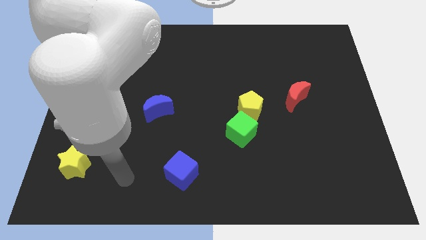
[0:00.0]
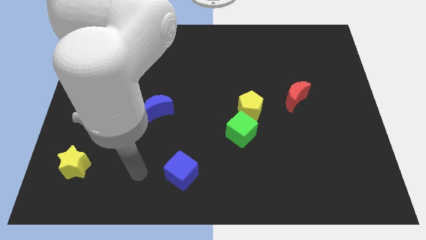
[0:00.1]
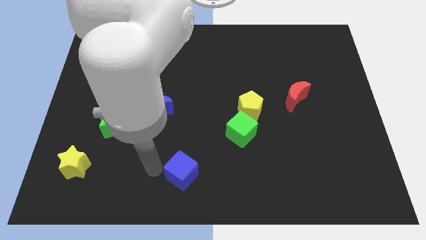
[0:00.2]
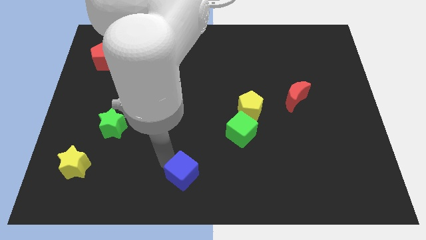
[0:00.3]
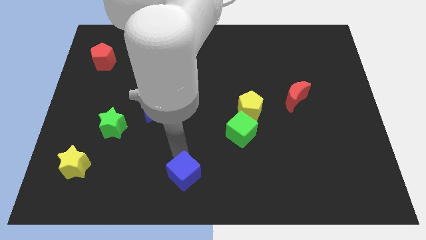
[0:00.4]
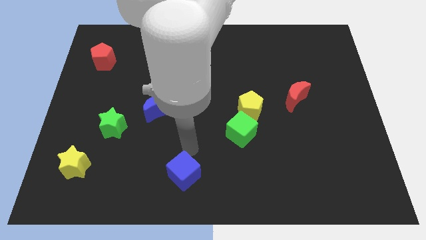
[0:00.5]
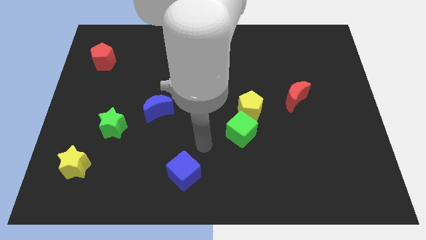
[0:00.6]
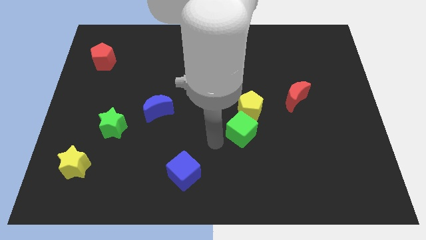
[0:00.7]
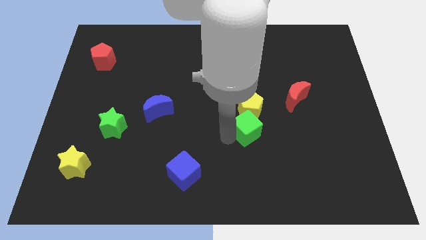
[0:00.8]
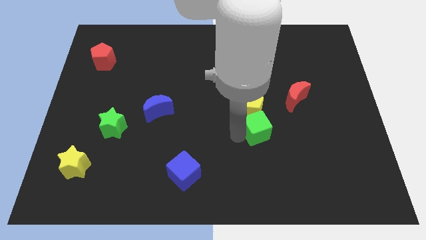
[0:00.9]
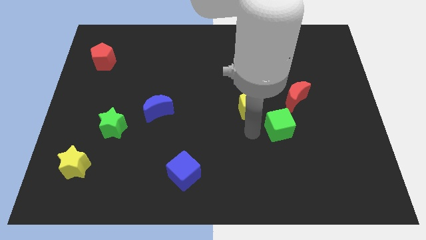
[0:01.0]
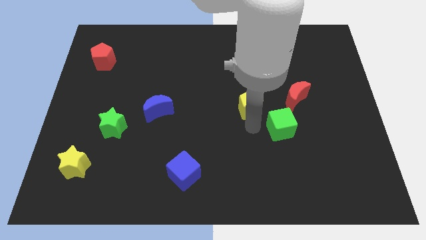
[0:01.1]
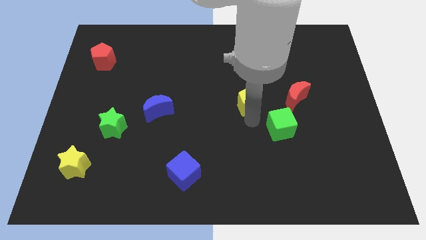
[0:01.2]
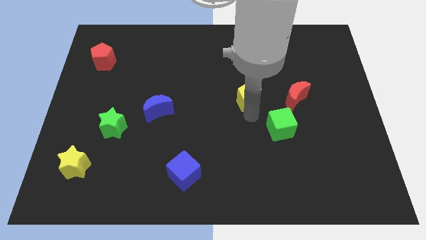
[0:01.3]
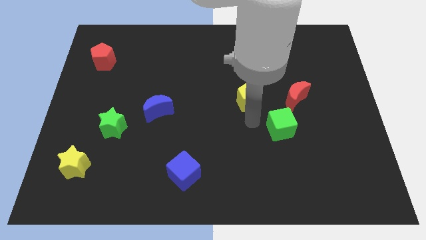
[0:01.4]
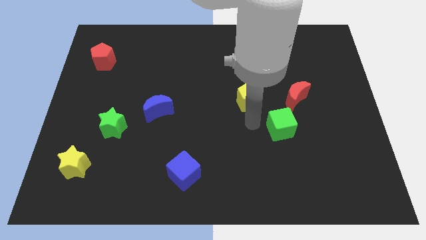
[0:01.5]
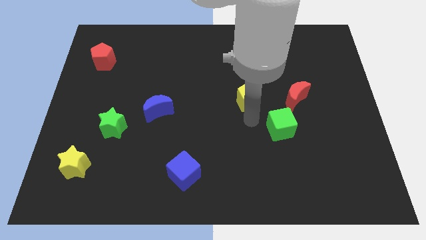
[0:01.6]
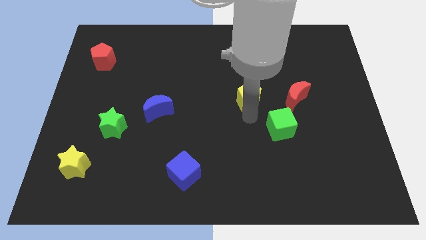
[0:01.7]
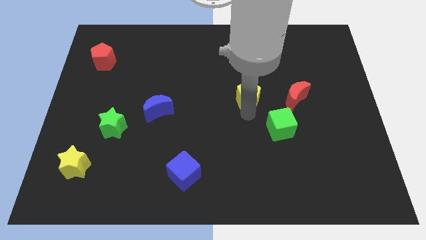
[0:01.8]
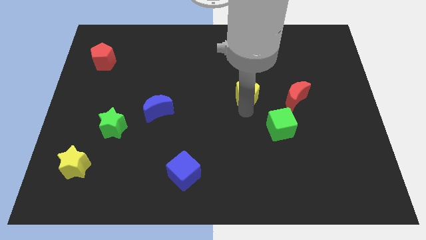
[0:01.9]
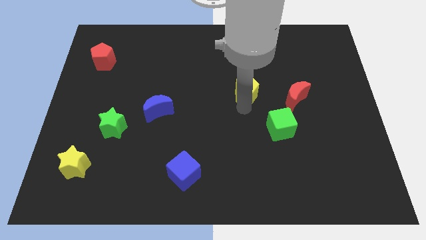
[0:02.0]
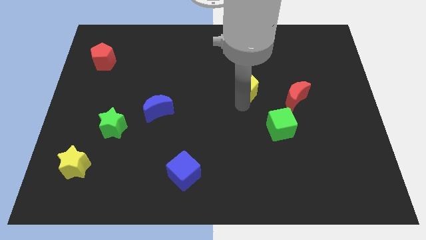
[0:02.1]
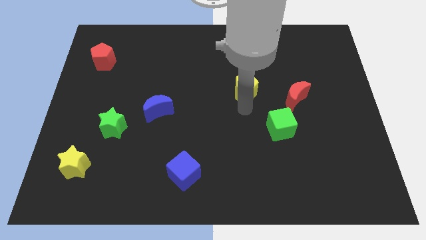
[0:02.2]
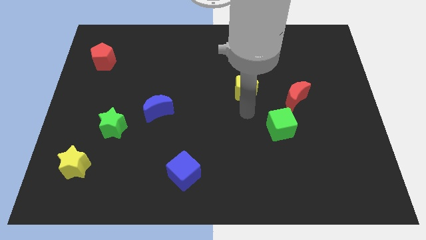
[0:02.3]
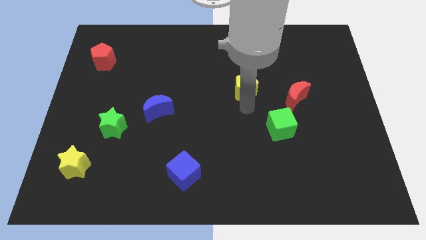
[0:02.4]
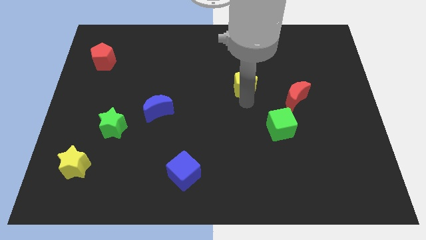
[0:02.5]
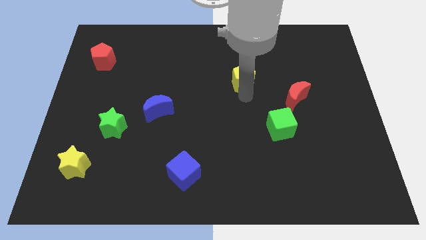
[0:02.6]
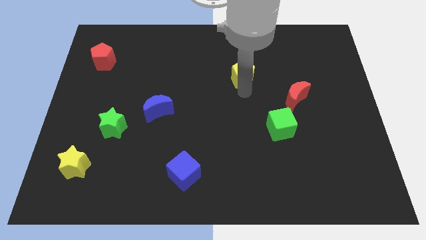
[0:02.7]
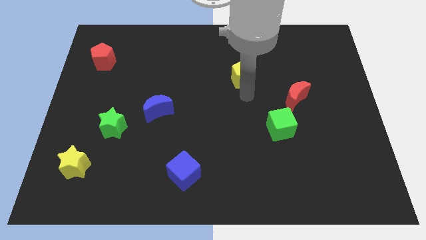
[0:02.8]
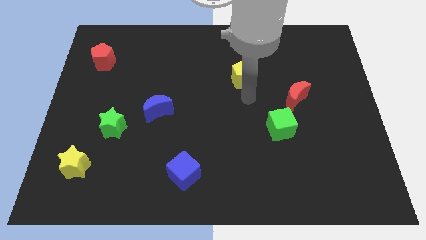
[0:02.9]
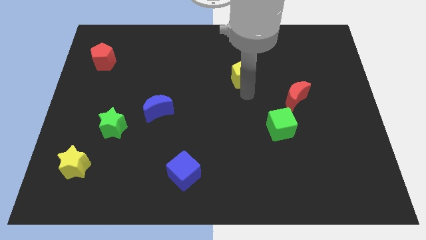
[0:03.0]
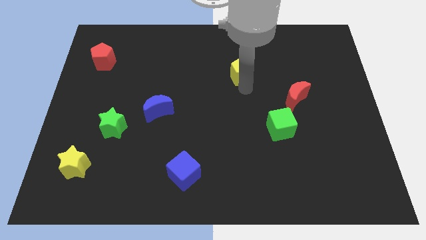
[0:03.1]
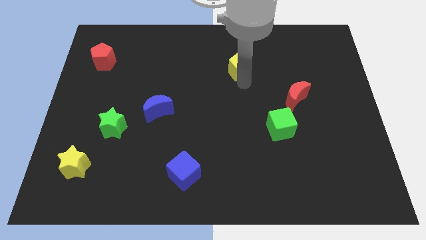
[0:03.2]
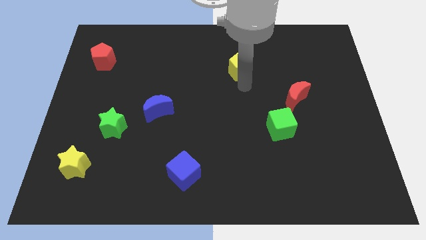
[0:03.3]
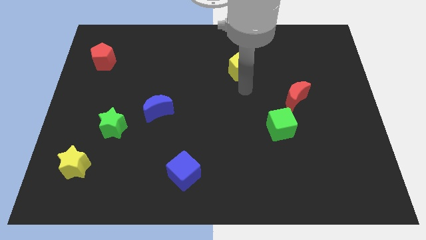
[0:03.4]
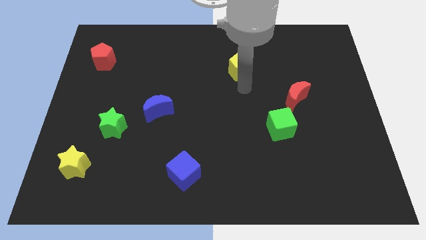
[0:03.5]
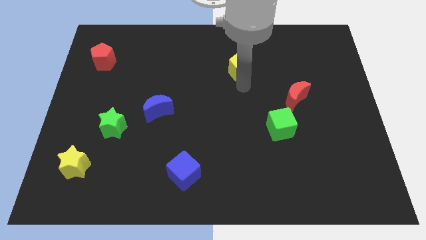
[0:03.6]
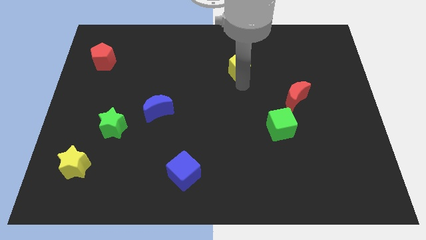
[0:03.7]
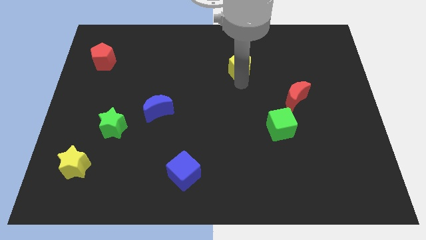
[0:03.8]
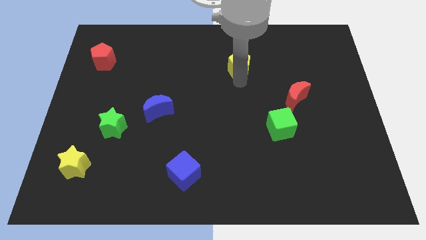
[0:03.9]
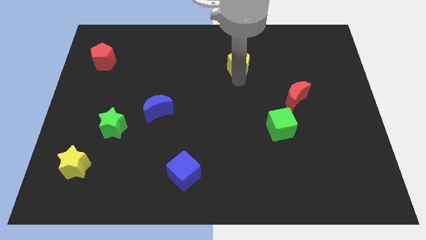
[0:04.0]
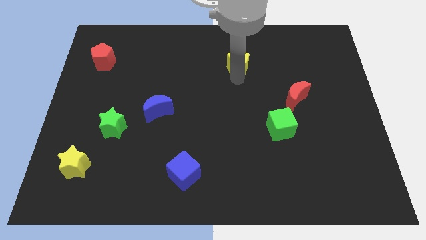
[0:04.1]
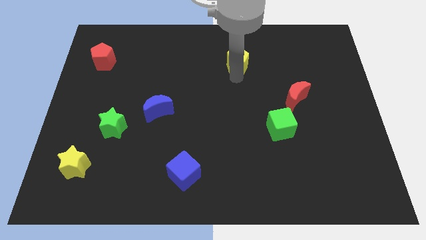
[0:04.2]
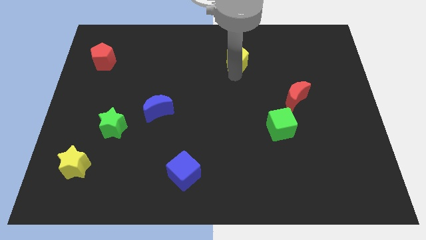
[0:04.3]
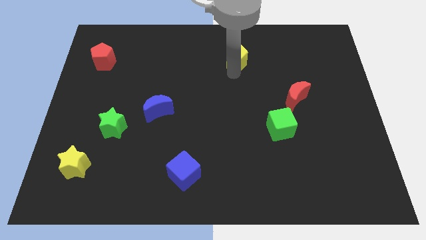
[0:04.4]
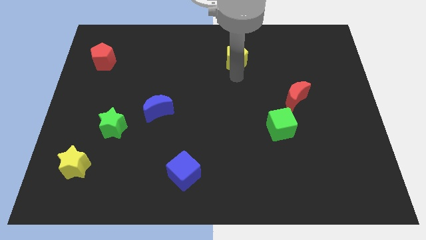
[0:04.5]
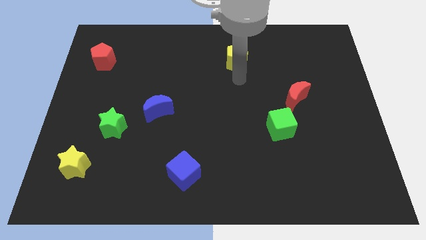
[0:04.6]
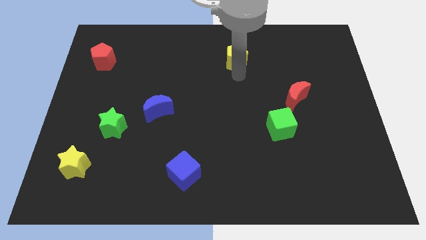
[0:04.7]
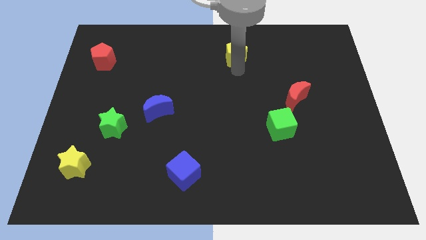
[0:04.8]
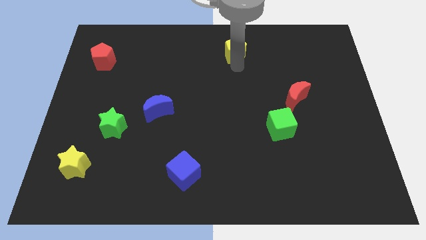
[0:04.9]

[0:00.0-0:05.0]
move the yellow pentagon to the top

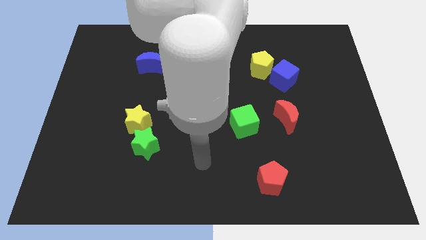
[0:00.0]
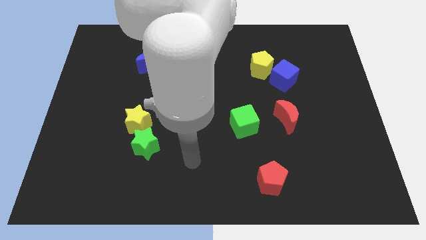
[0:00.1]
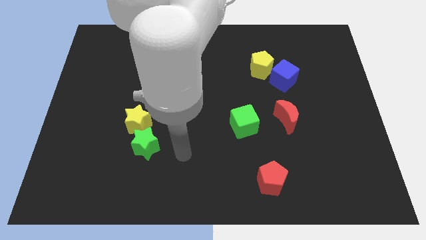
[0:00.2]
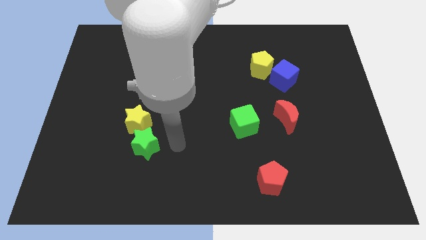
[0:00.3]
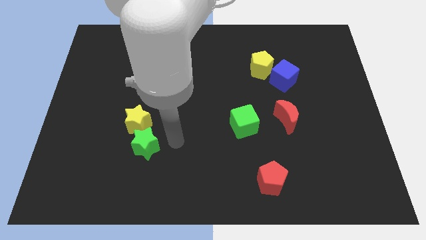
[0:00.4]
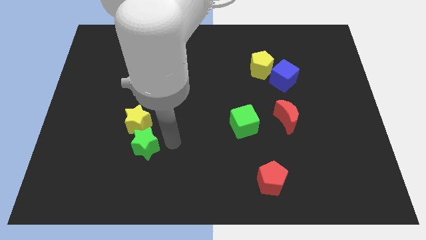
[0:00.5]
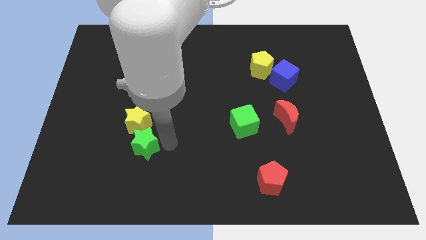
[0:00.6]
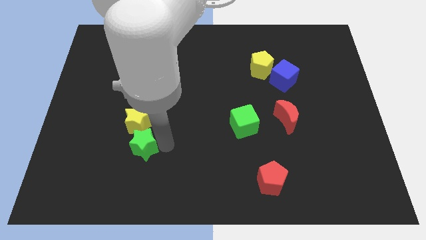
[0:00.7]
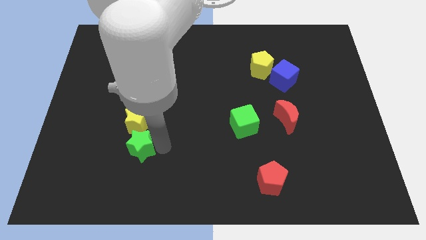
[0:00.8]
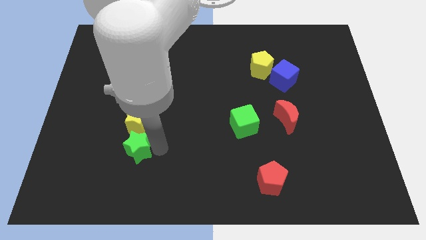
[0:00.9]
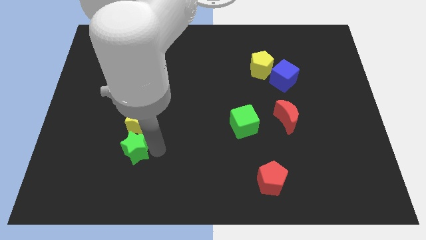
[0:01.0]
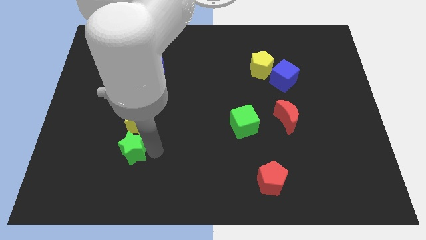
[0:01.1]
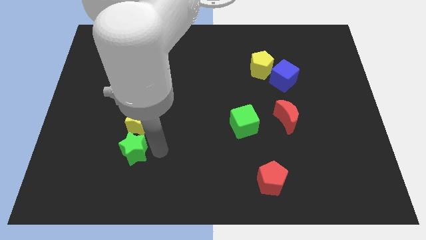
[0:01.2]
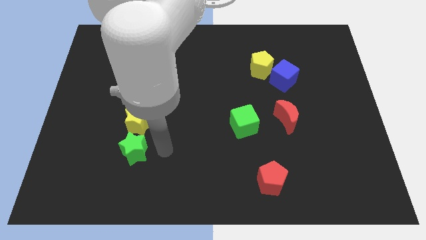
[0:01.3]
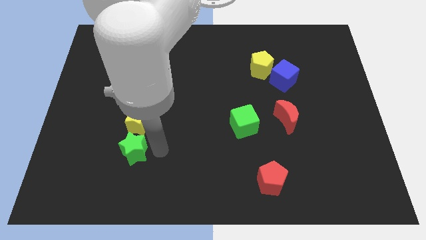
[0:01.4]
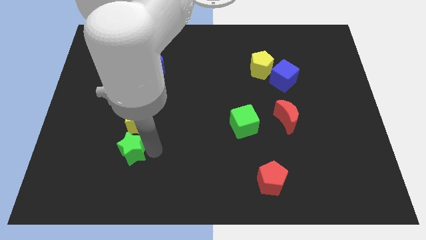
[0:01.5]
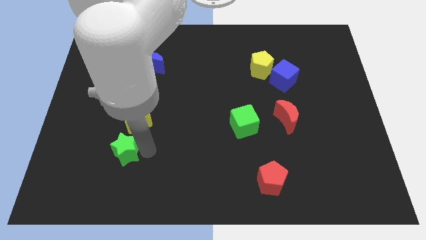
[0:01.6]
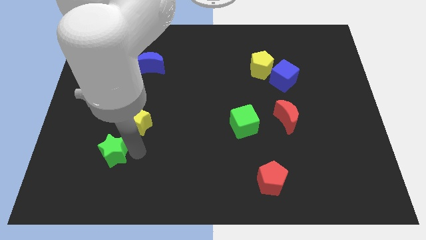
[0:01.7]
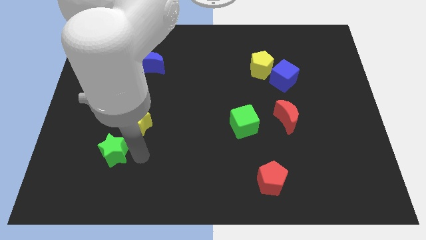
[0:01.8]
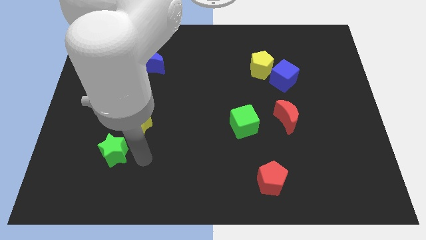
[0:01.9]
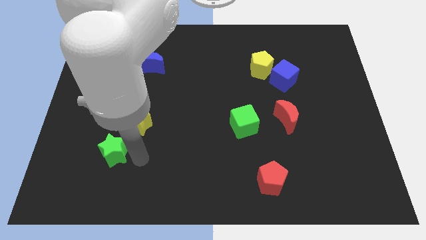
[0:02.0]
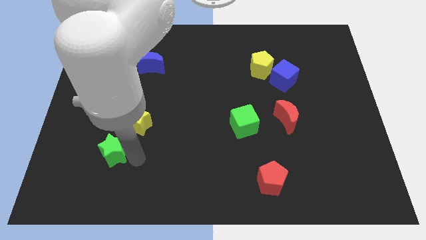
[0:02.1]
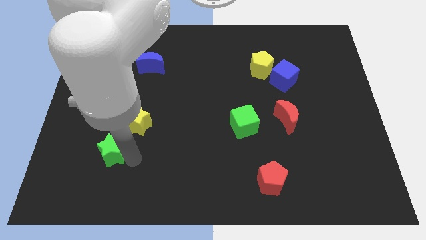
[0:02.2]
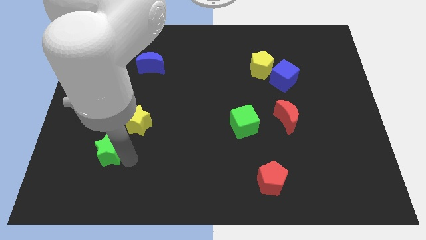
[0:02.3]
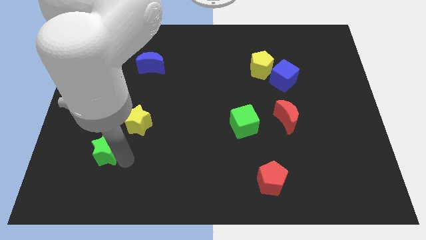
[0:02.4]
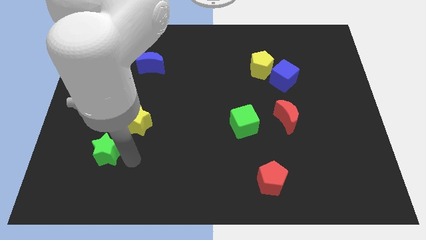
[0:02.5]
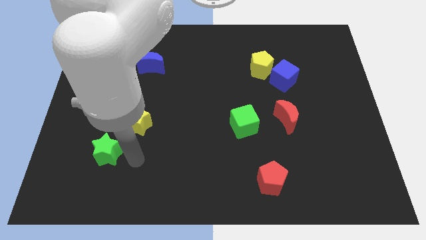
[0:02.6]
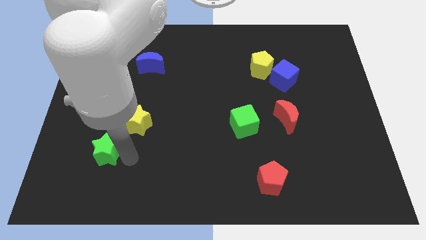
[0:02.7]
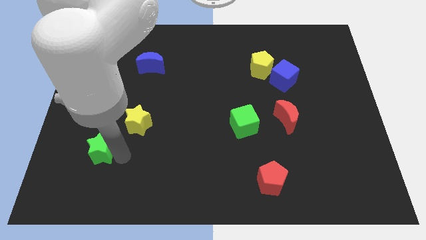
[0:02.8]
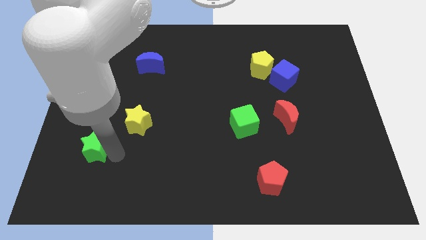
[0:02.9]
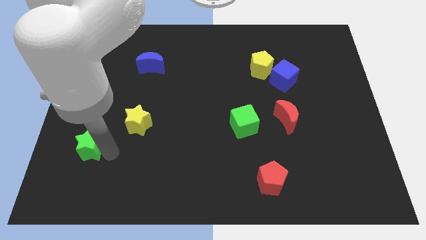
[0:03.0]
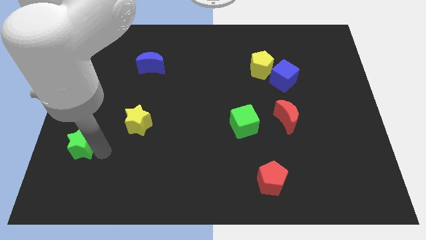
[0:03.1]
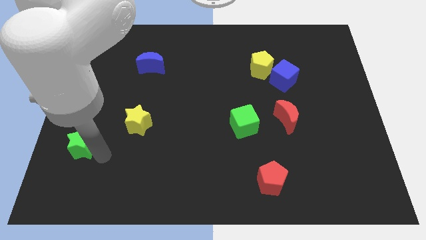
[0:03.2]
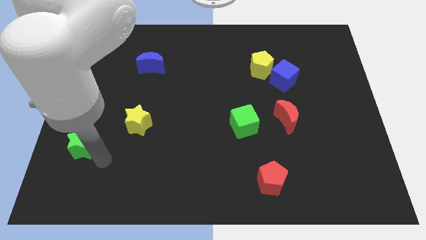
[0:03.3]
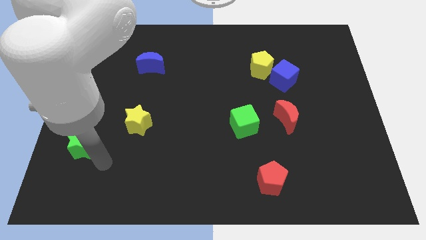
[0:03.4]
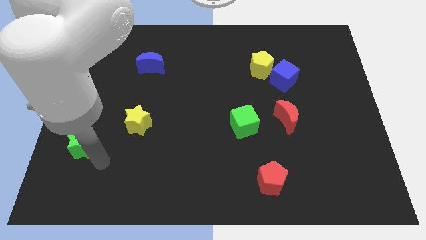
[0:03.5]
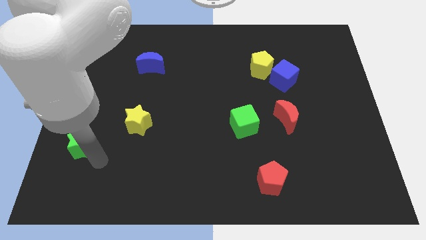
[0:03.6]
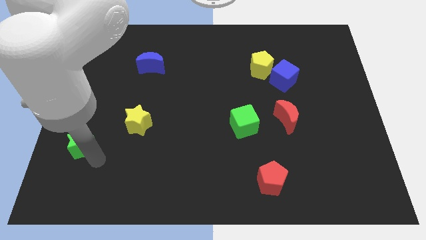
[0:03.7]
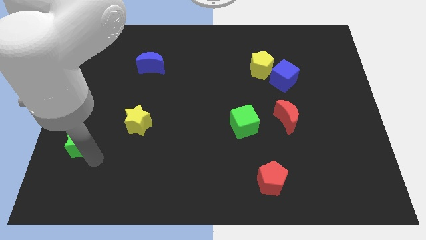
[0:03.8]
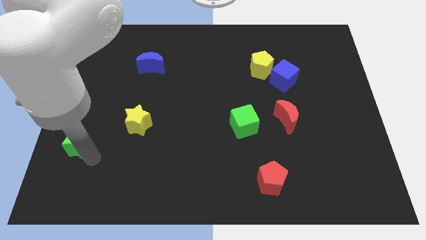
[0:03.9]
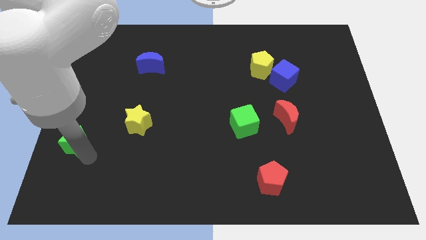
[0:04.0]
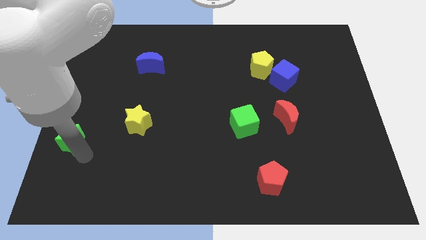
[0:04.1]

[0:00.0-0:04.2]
slide the green star to the left side of the board
